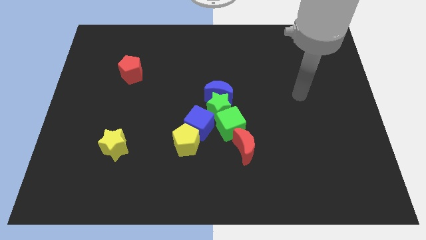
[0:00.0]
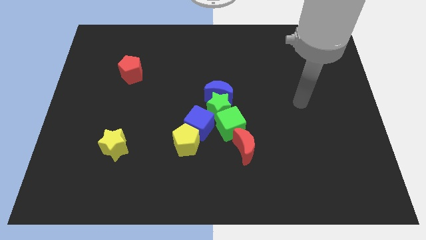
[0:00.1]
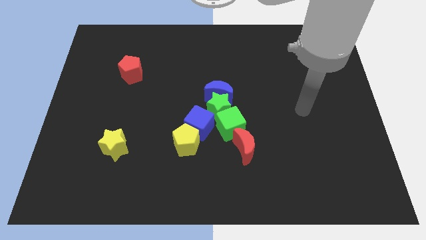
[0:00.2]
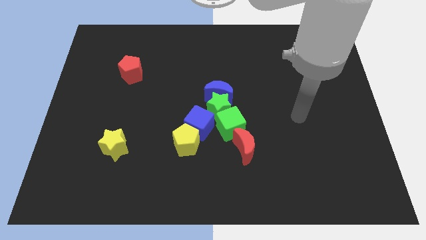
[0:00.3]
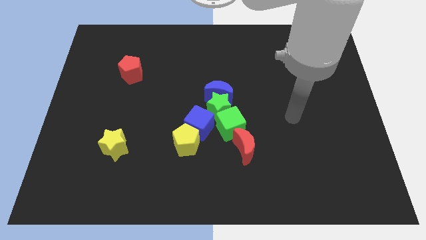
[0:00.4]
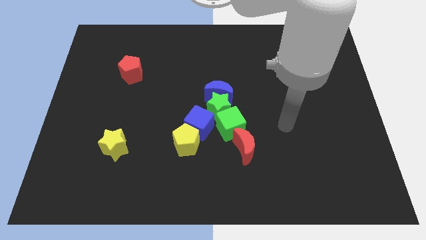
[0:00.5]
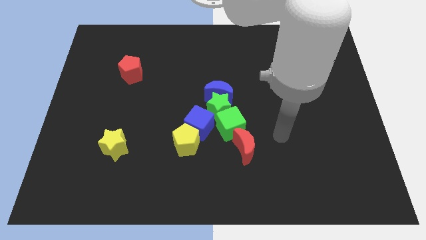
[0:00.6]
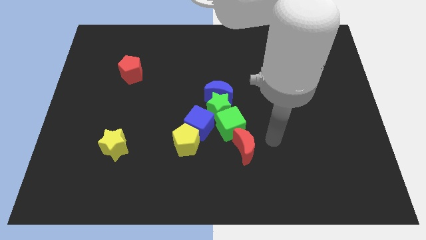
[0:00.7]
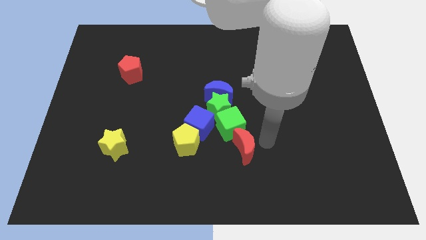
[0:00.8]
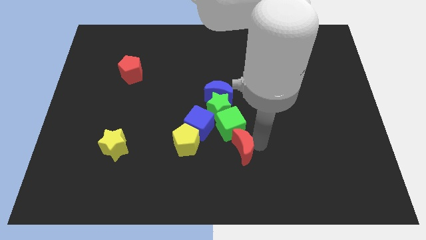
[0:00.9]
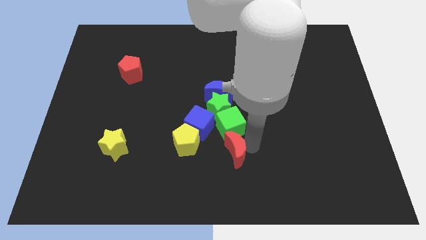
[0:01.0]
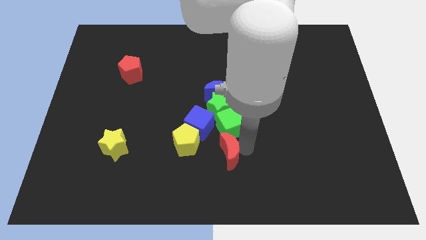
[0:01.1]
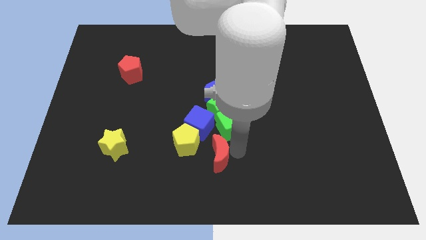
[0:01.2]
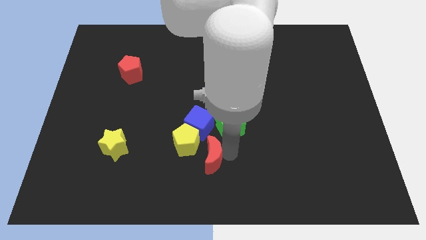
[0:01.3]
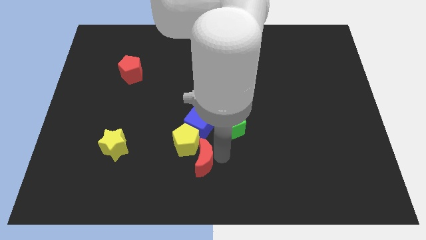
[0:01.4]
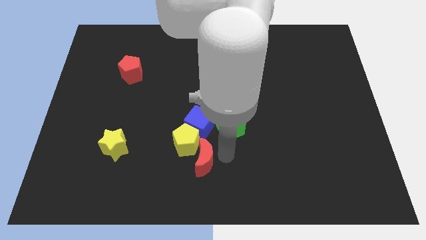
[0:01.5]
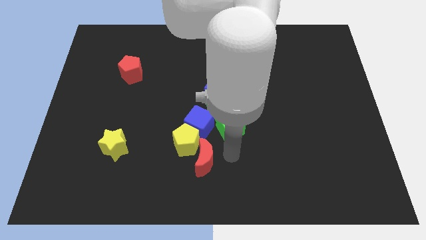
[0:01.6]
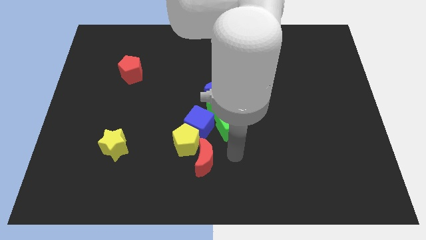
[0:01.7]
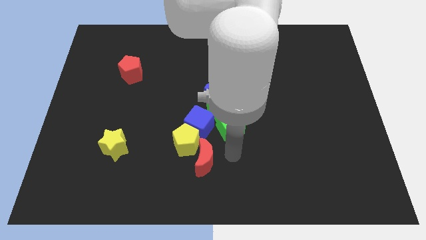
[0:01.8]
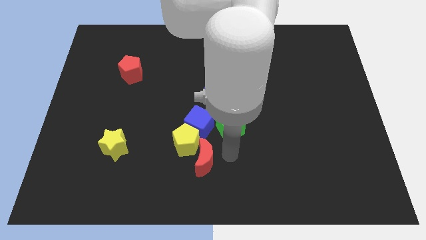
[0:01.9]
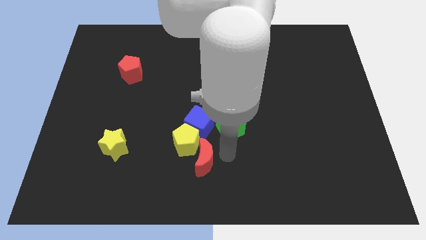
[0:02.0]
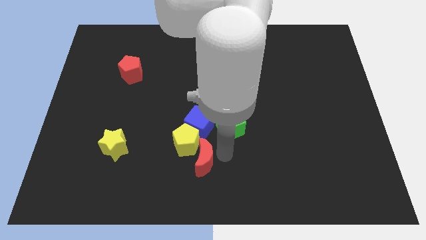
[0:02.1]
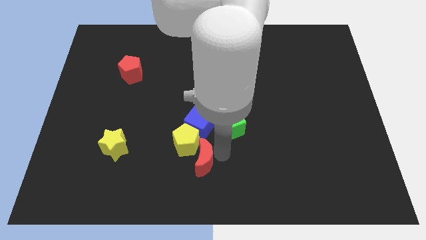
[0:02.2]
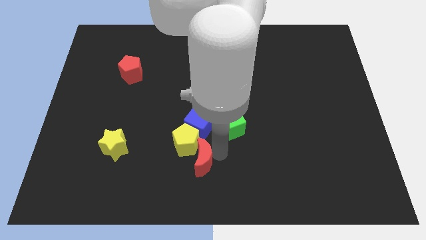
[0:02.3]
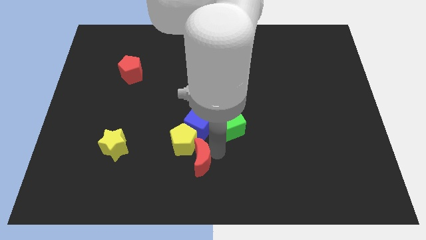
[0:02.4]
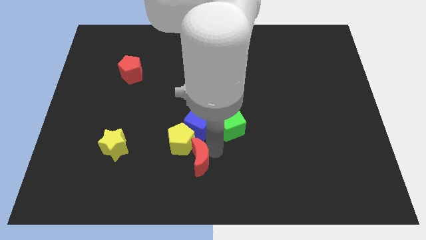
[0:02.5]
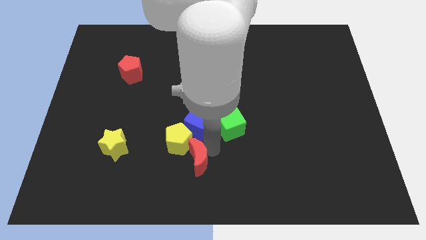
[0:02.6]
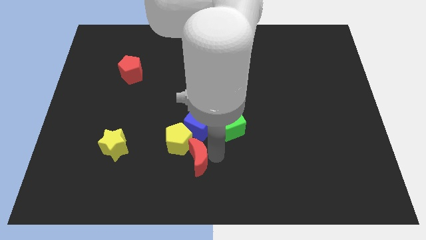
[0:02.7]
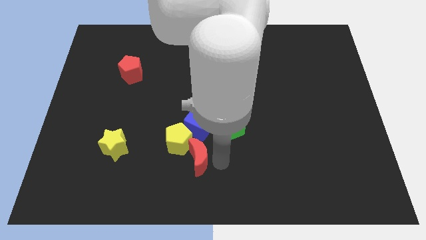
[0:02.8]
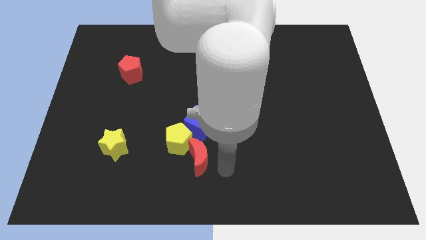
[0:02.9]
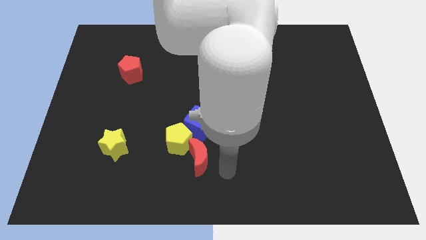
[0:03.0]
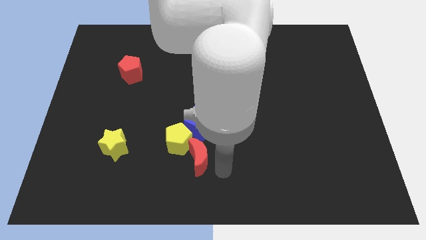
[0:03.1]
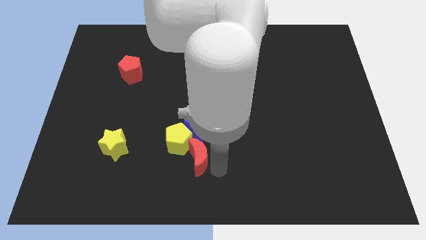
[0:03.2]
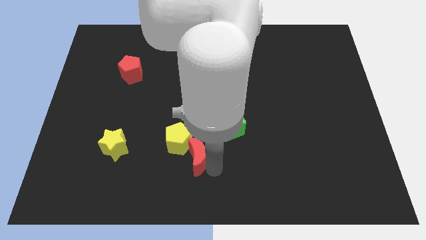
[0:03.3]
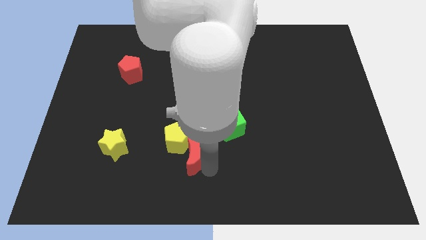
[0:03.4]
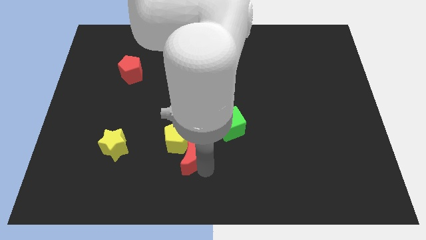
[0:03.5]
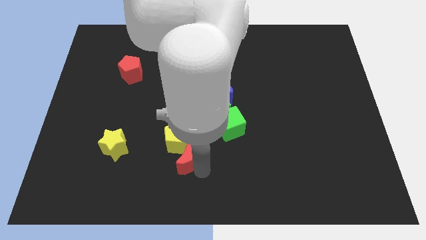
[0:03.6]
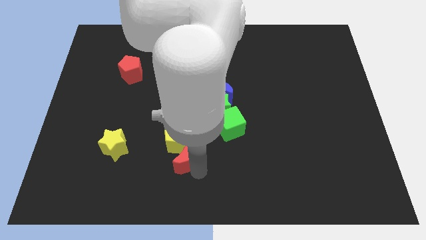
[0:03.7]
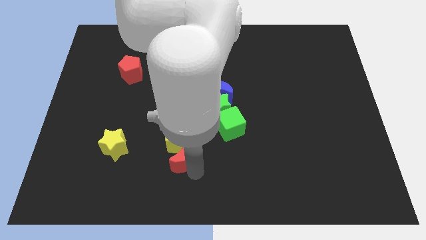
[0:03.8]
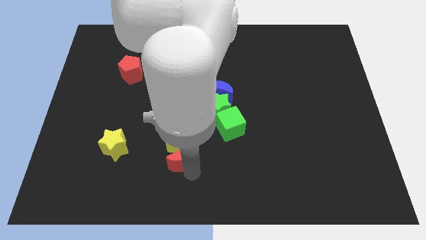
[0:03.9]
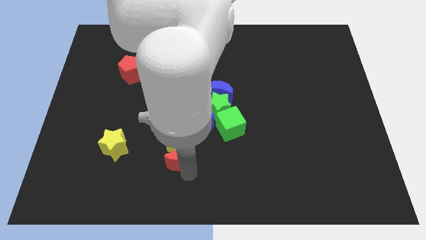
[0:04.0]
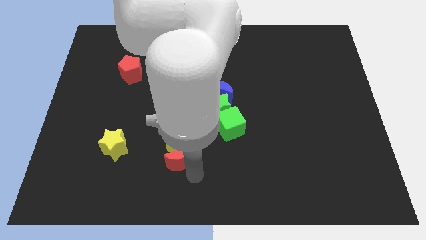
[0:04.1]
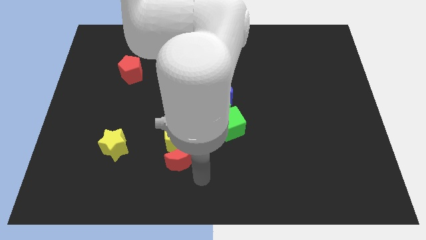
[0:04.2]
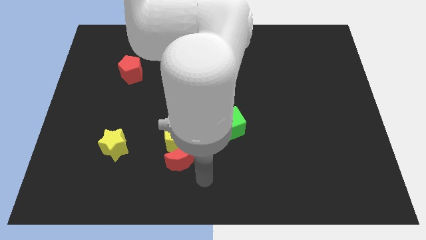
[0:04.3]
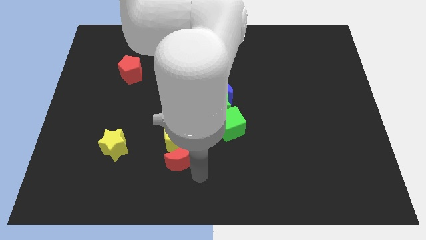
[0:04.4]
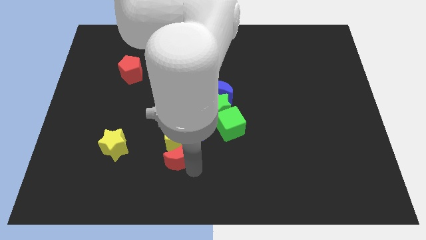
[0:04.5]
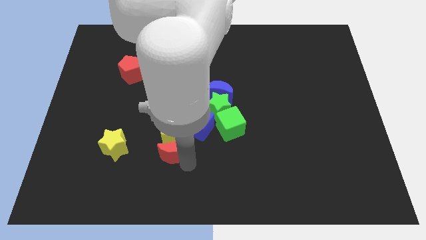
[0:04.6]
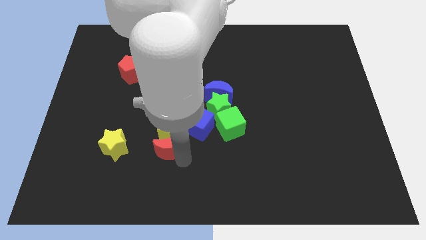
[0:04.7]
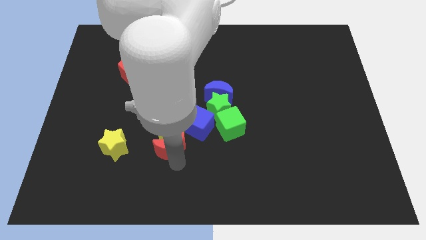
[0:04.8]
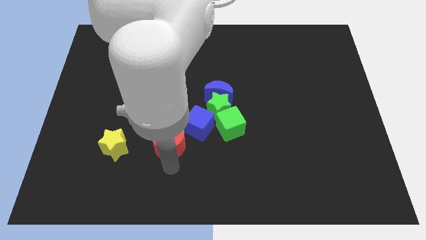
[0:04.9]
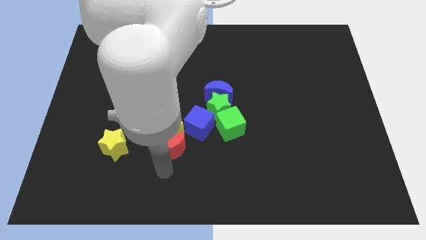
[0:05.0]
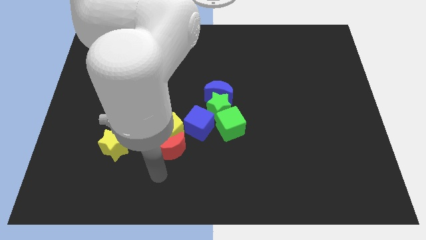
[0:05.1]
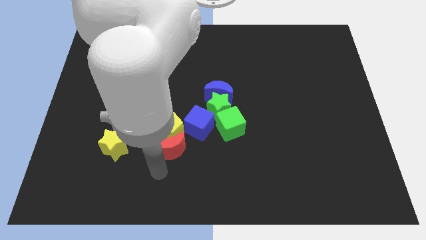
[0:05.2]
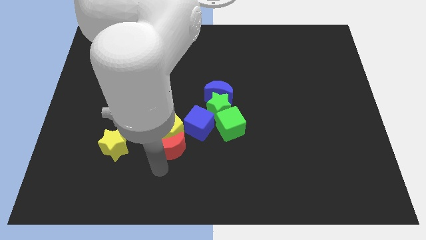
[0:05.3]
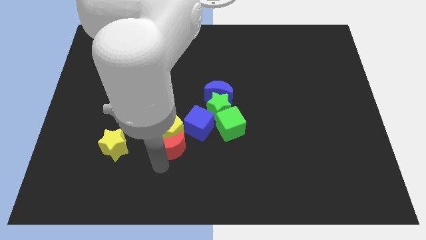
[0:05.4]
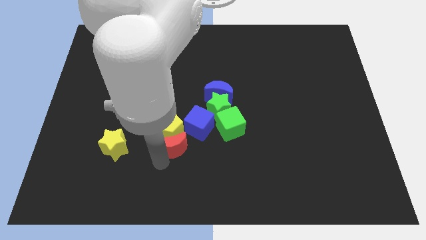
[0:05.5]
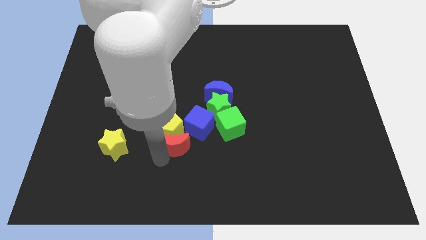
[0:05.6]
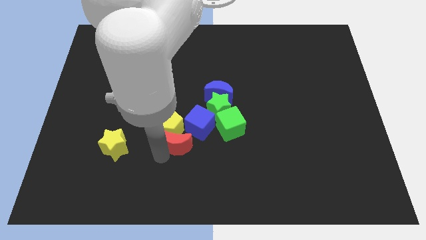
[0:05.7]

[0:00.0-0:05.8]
slide the red moon to the left of the green cube

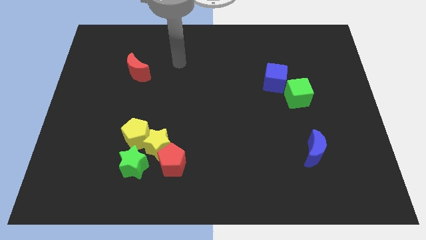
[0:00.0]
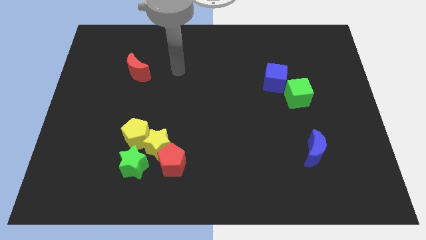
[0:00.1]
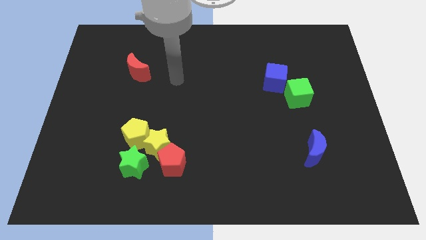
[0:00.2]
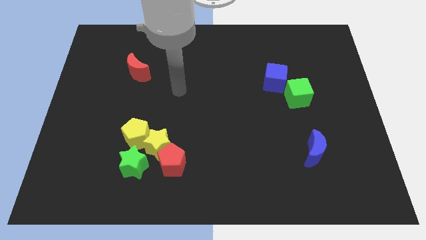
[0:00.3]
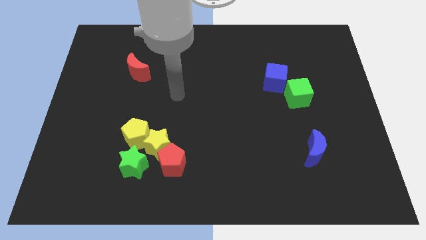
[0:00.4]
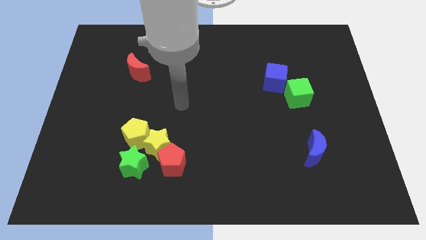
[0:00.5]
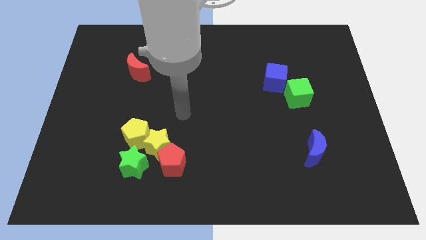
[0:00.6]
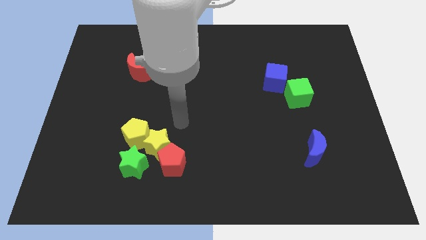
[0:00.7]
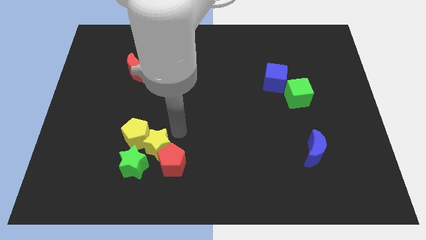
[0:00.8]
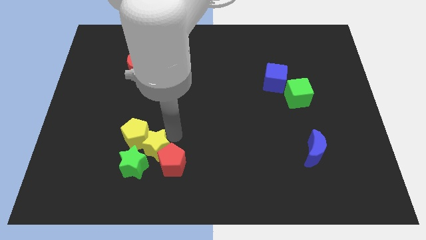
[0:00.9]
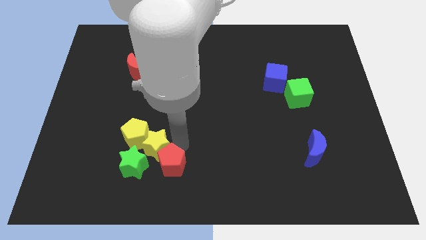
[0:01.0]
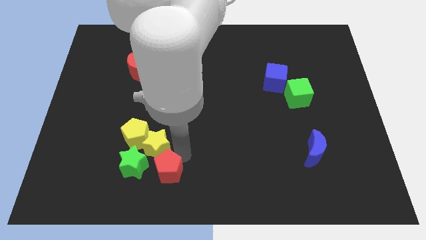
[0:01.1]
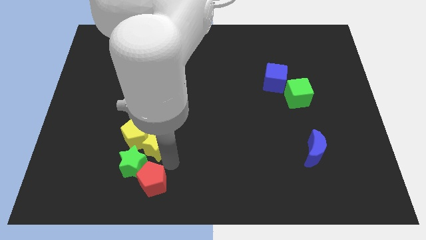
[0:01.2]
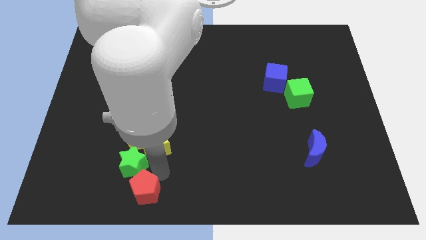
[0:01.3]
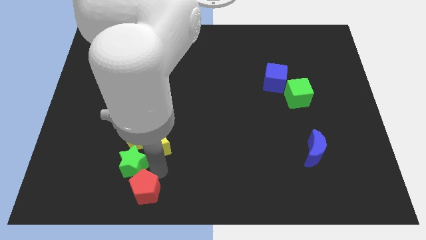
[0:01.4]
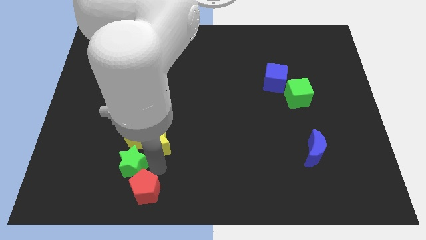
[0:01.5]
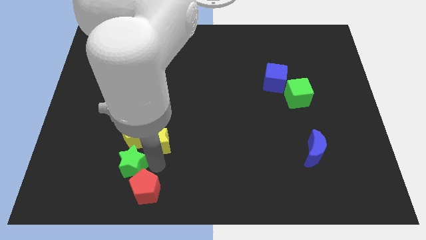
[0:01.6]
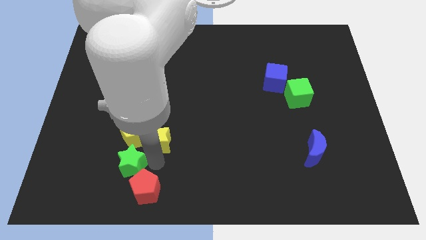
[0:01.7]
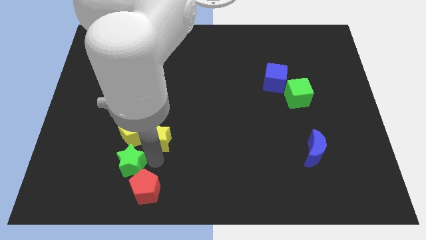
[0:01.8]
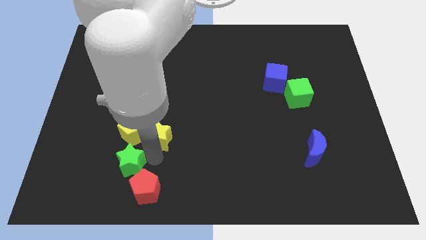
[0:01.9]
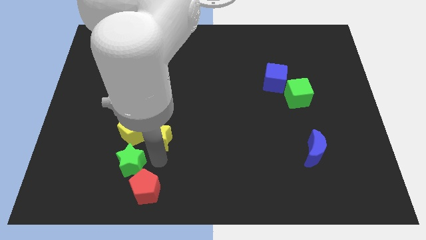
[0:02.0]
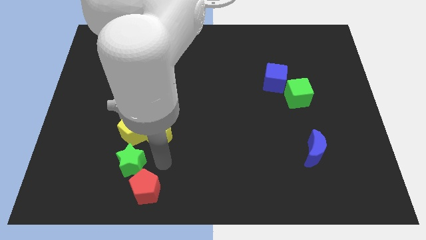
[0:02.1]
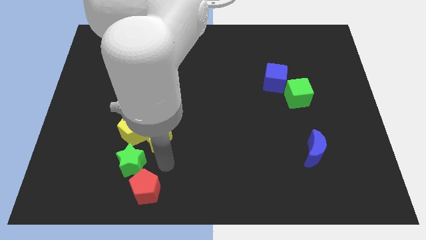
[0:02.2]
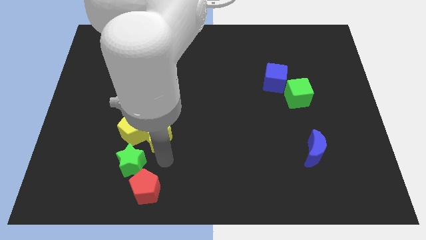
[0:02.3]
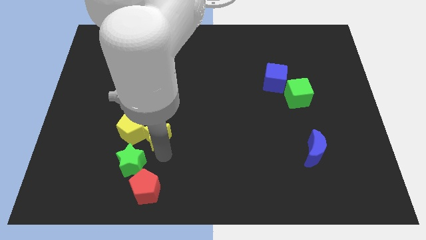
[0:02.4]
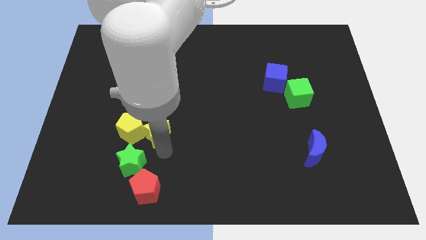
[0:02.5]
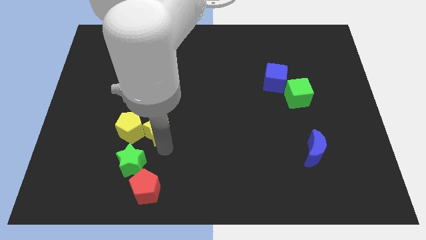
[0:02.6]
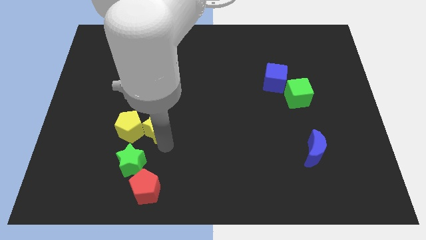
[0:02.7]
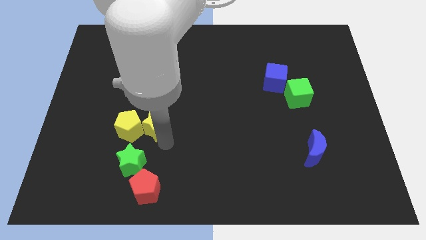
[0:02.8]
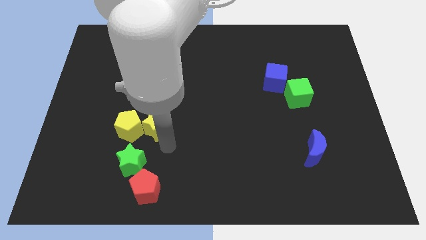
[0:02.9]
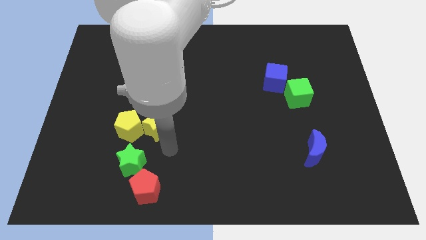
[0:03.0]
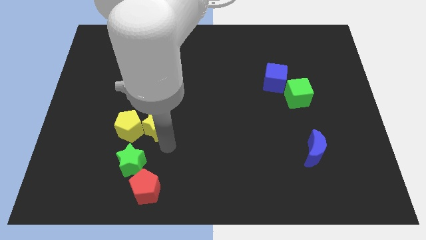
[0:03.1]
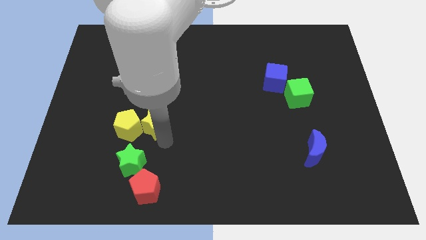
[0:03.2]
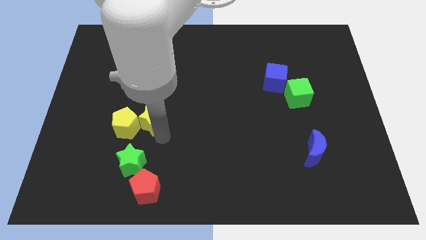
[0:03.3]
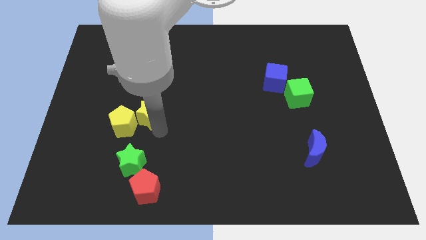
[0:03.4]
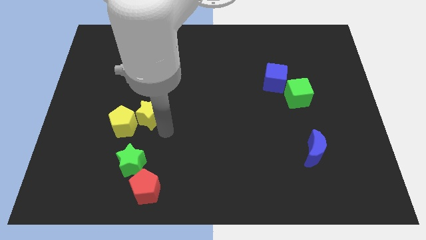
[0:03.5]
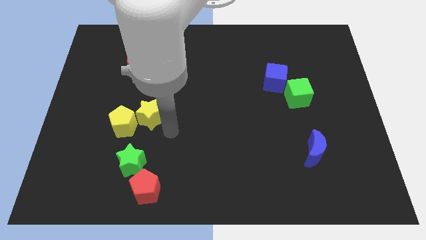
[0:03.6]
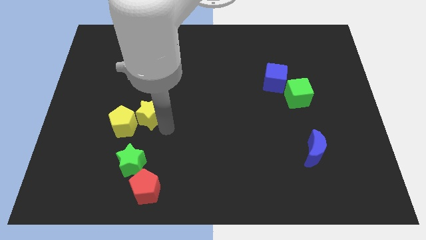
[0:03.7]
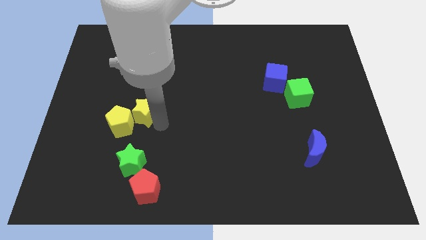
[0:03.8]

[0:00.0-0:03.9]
put the yellow star below the red moon
